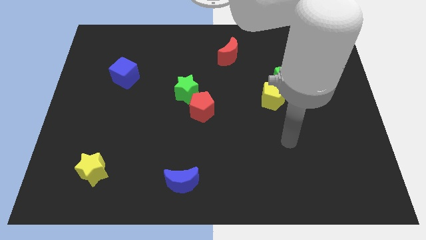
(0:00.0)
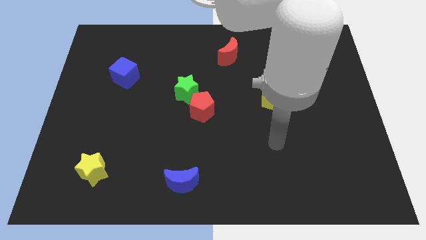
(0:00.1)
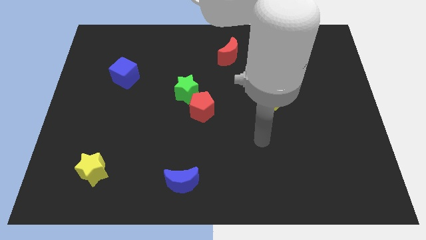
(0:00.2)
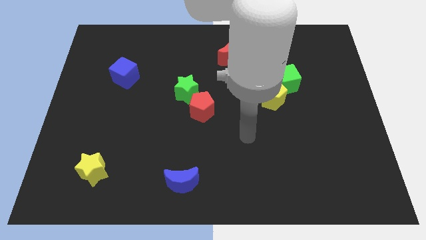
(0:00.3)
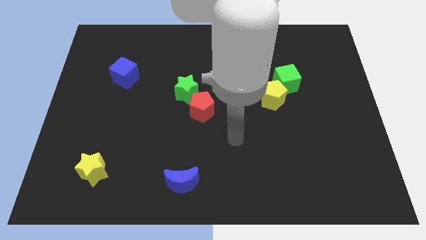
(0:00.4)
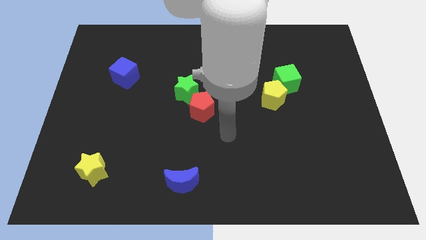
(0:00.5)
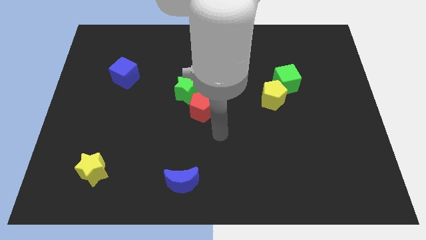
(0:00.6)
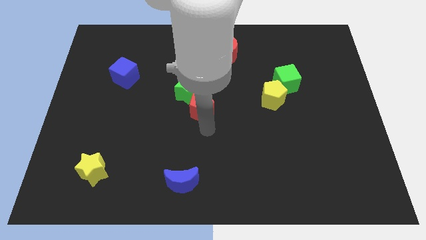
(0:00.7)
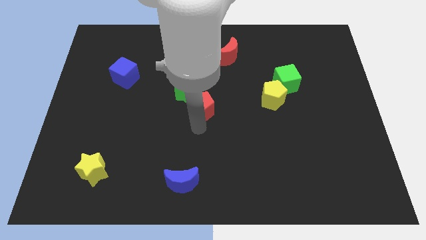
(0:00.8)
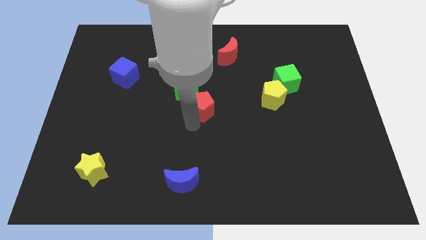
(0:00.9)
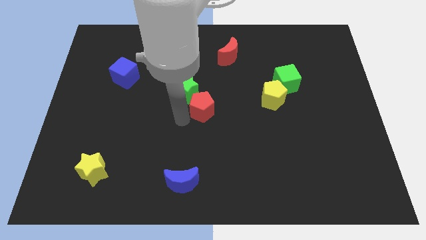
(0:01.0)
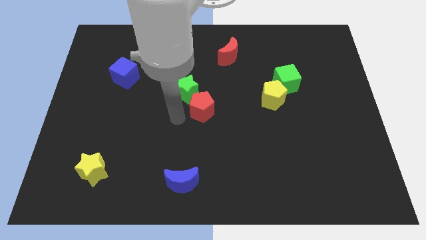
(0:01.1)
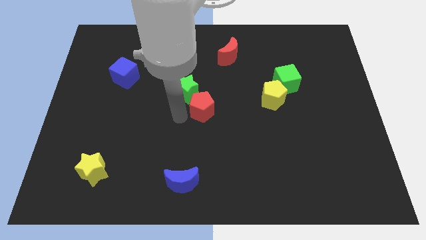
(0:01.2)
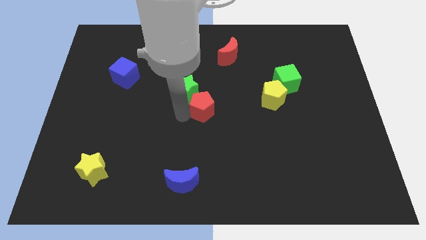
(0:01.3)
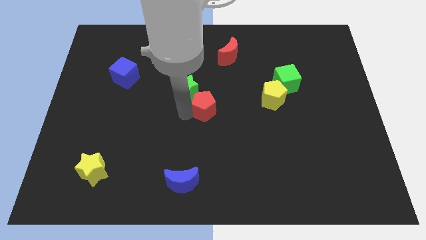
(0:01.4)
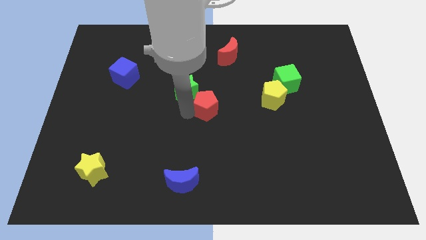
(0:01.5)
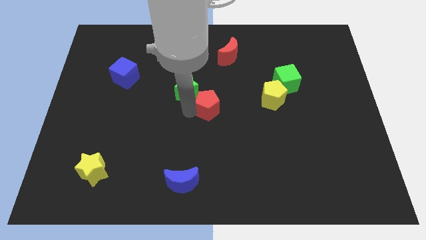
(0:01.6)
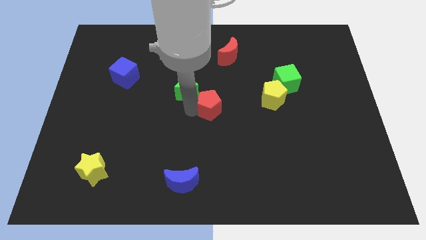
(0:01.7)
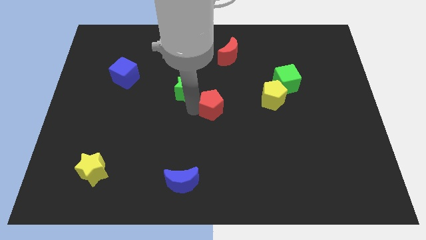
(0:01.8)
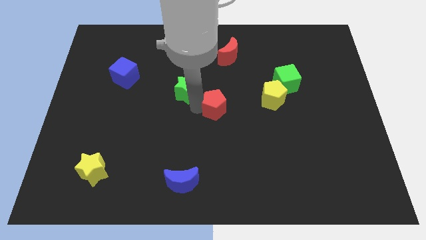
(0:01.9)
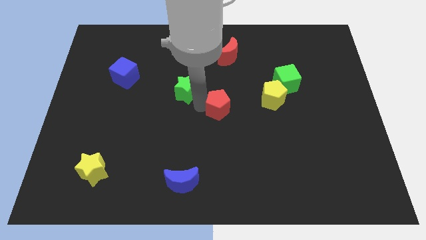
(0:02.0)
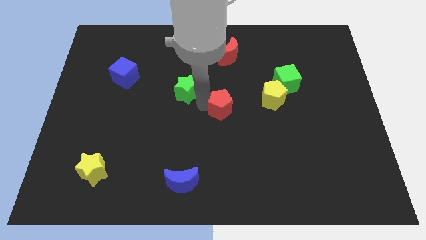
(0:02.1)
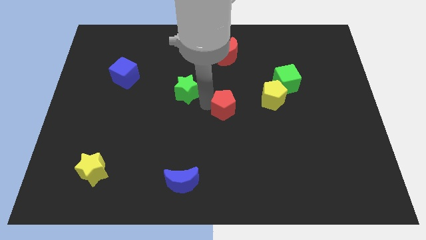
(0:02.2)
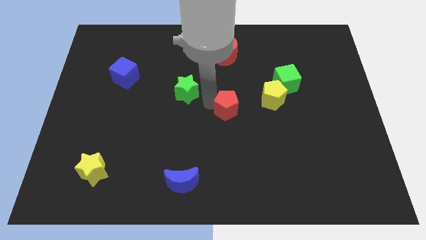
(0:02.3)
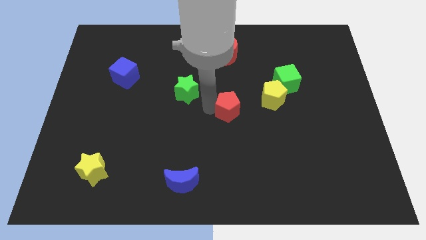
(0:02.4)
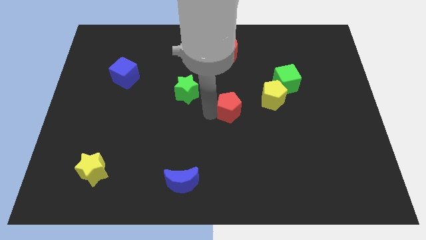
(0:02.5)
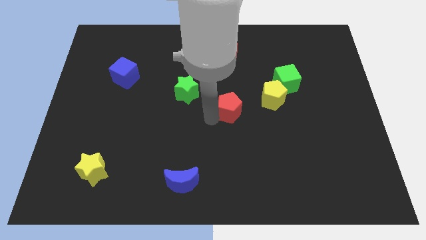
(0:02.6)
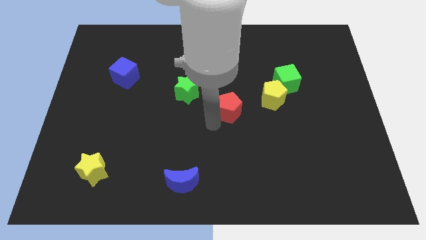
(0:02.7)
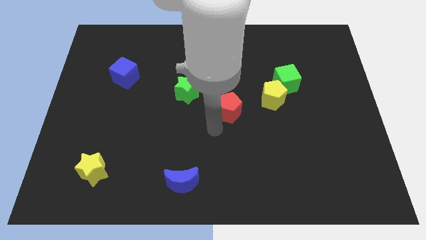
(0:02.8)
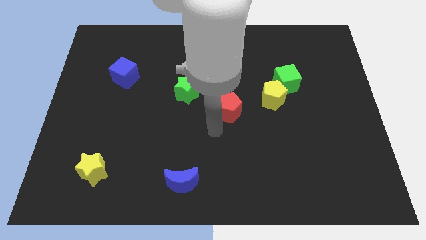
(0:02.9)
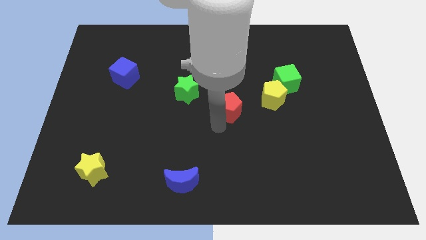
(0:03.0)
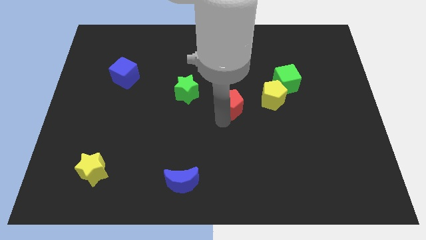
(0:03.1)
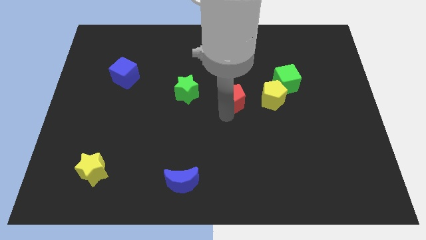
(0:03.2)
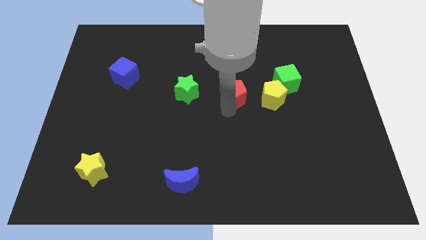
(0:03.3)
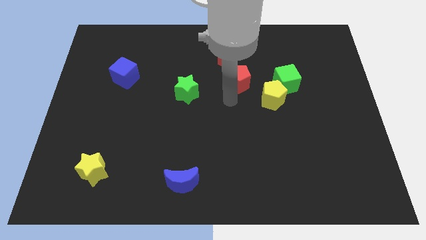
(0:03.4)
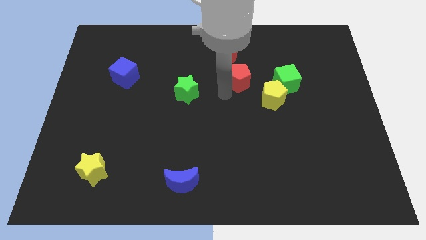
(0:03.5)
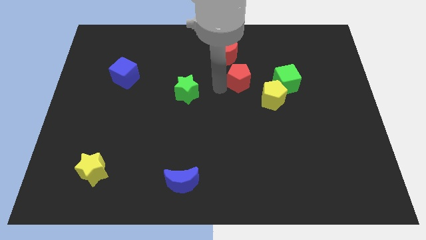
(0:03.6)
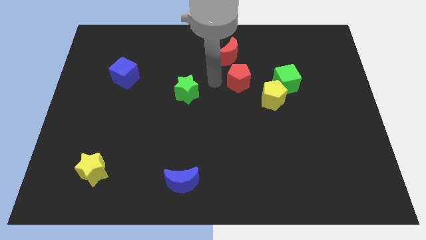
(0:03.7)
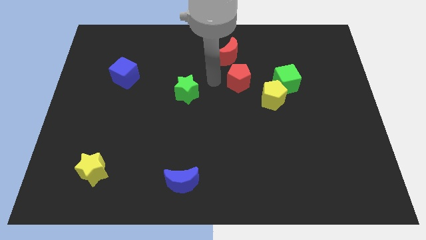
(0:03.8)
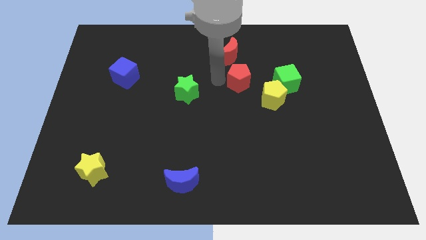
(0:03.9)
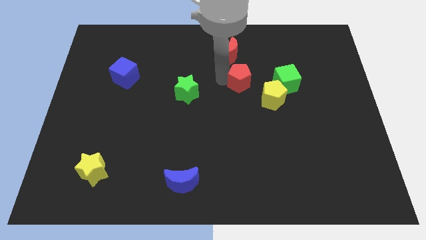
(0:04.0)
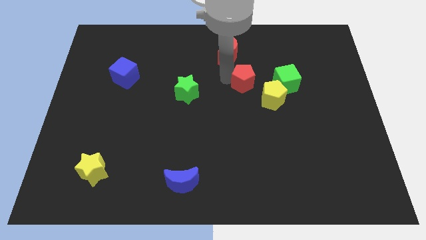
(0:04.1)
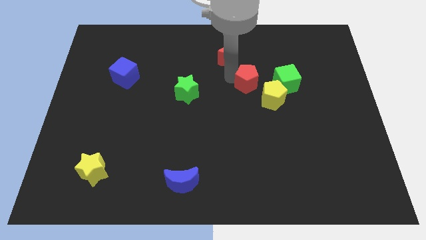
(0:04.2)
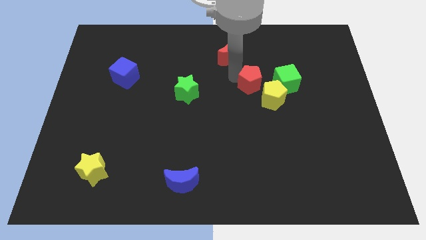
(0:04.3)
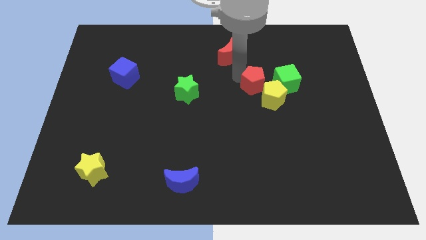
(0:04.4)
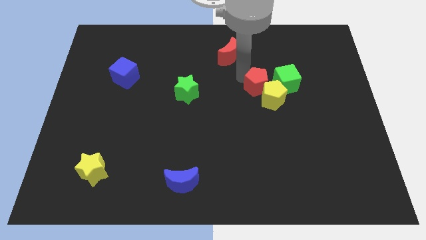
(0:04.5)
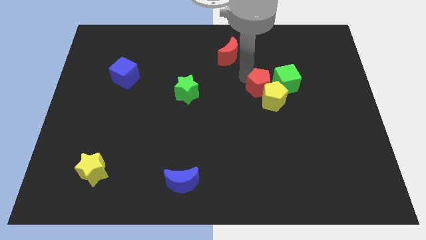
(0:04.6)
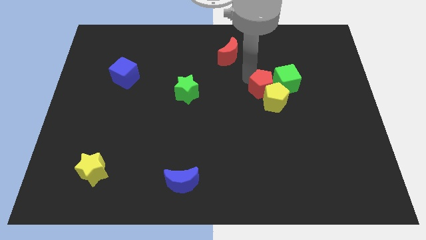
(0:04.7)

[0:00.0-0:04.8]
put the red pentagon to the green cube

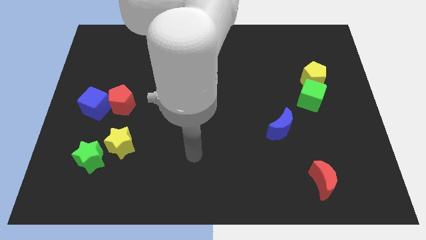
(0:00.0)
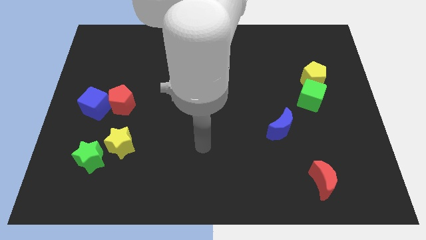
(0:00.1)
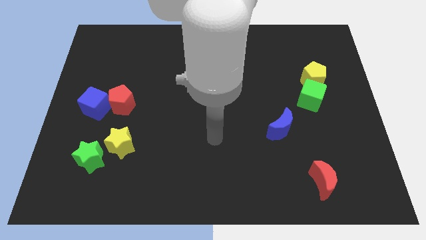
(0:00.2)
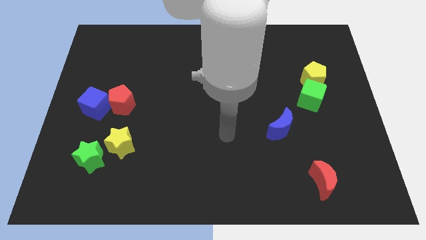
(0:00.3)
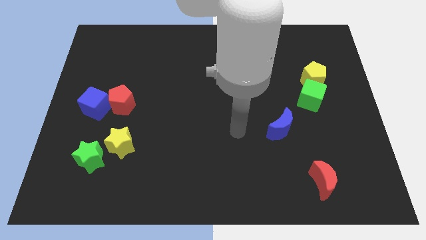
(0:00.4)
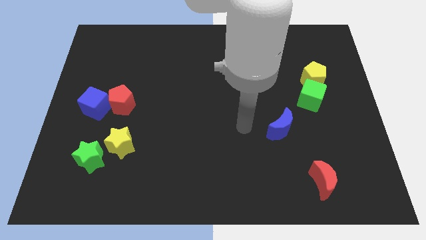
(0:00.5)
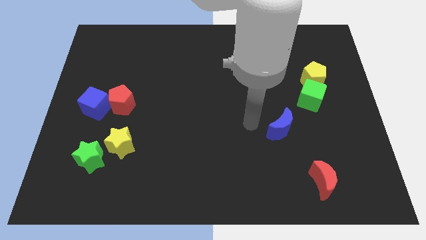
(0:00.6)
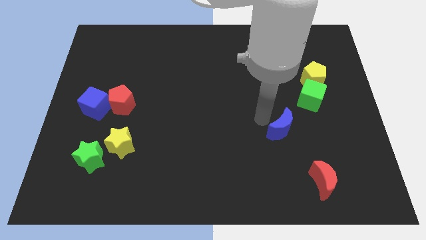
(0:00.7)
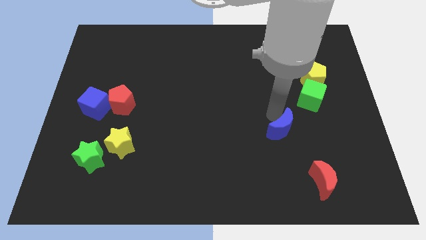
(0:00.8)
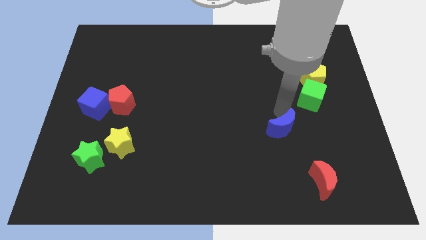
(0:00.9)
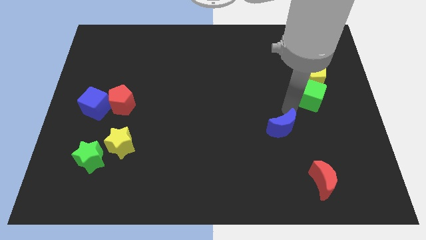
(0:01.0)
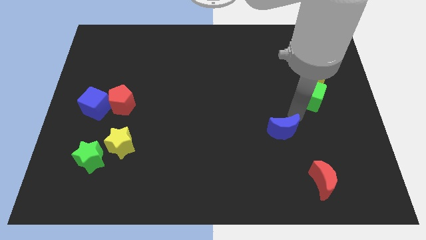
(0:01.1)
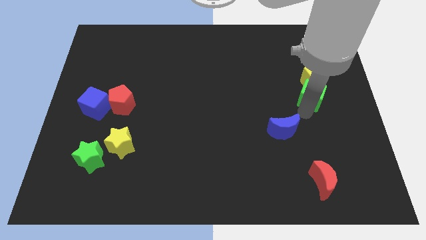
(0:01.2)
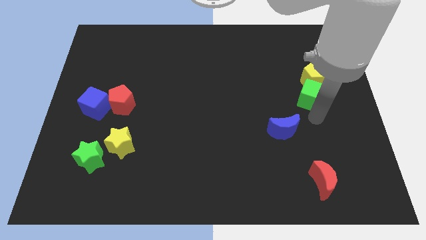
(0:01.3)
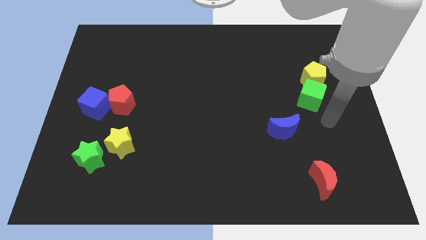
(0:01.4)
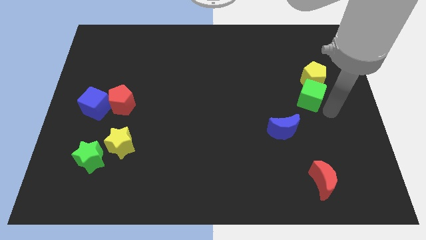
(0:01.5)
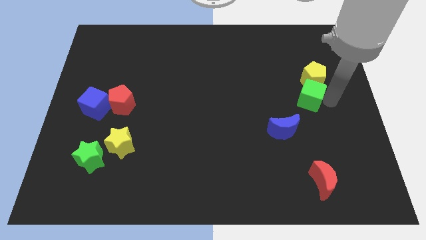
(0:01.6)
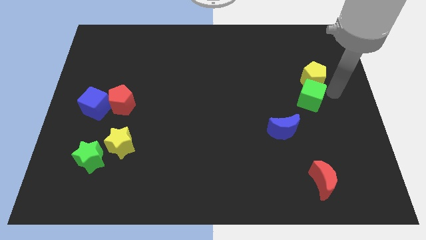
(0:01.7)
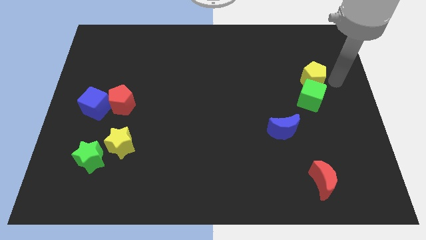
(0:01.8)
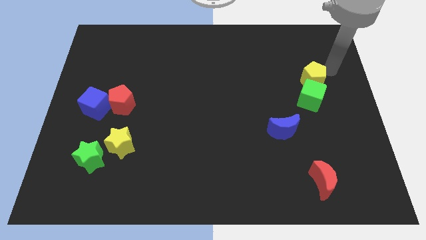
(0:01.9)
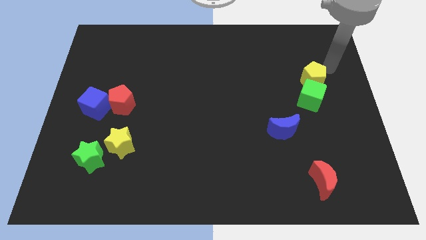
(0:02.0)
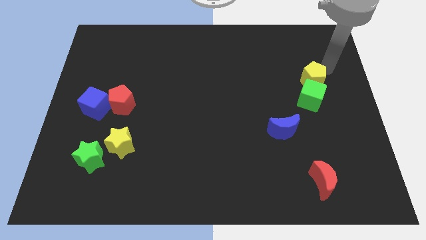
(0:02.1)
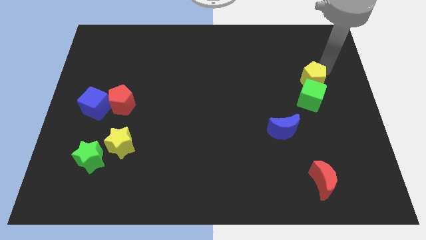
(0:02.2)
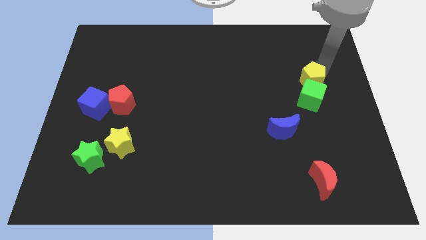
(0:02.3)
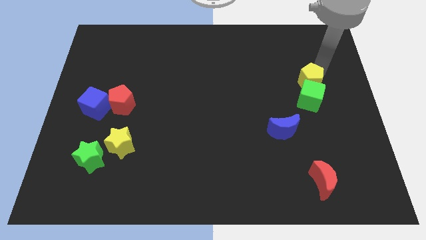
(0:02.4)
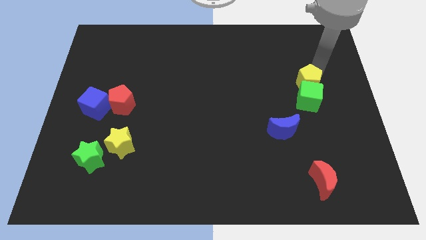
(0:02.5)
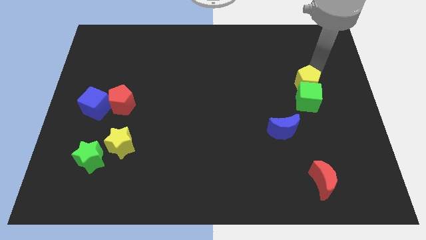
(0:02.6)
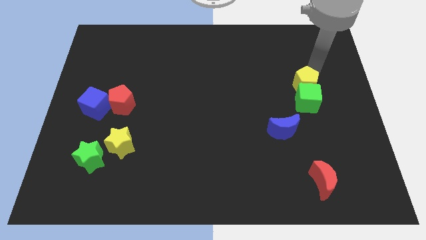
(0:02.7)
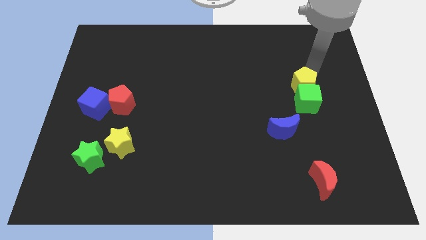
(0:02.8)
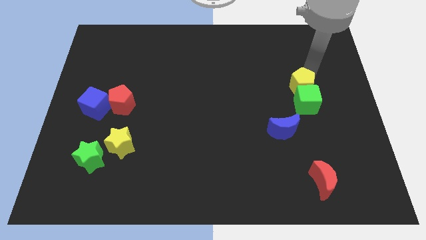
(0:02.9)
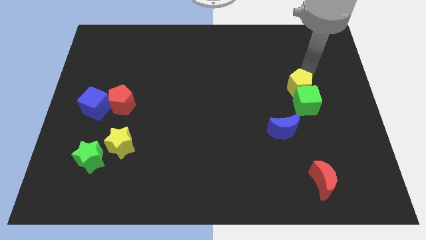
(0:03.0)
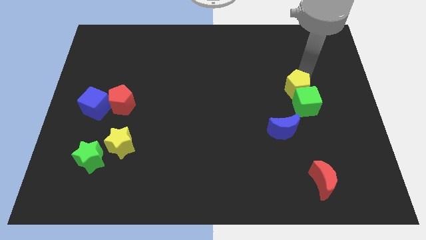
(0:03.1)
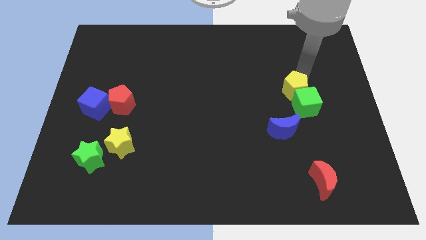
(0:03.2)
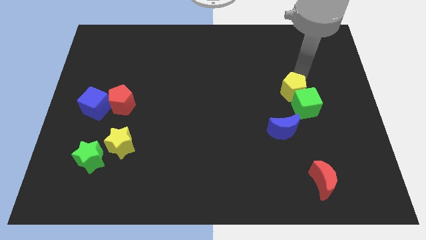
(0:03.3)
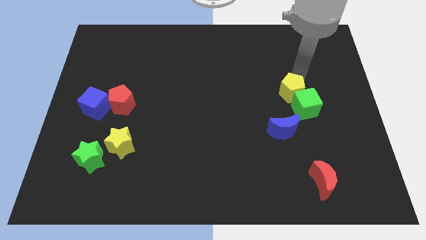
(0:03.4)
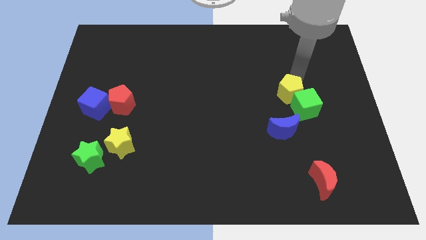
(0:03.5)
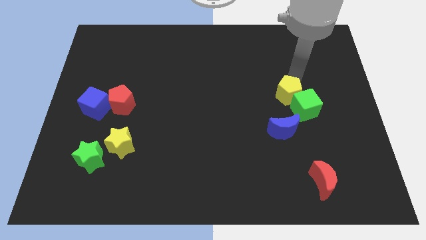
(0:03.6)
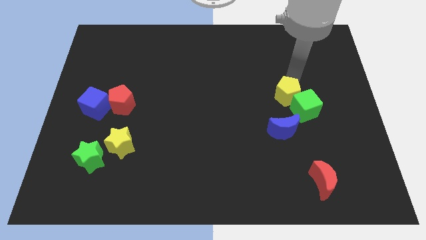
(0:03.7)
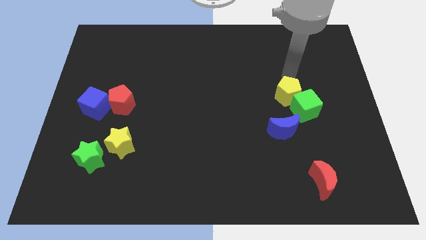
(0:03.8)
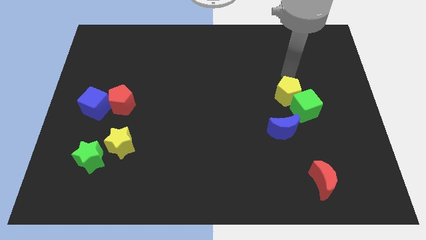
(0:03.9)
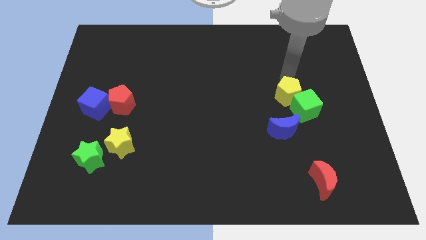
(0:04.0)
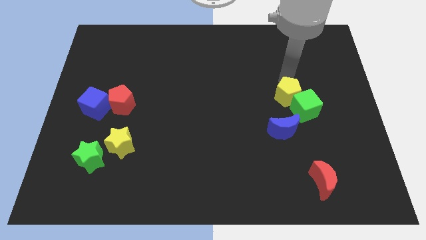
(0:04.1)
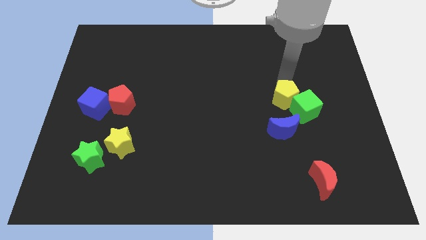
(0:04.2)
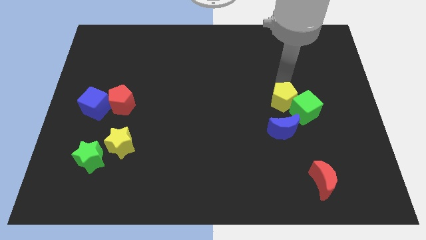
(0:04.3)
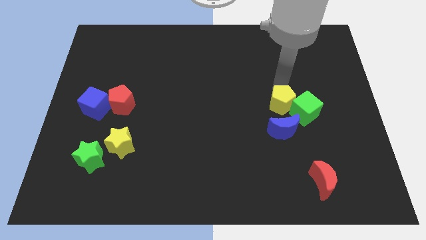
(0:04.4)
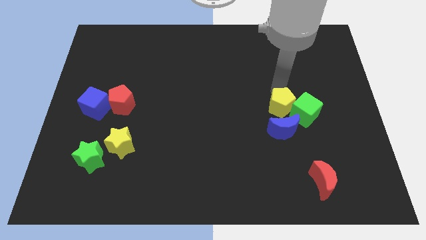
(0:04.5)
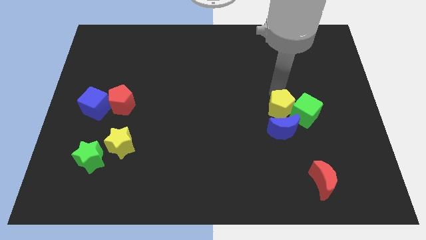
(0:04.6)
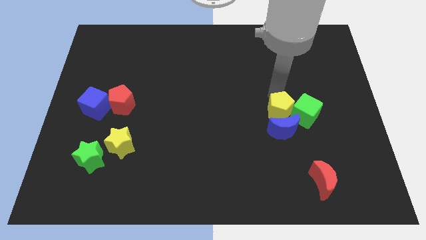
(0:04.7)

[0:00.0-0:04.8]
slide the yellow pentagon towards the blue moon
